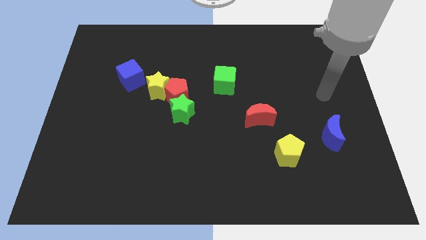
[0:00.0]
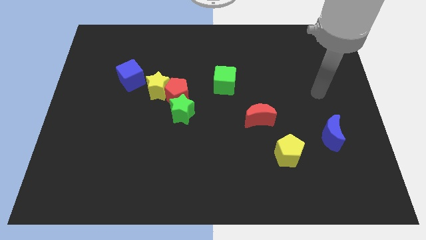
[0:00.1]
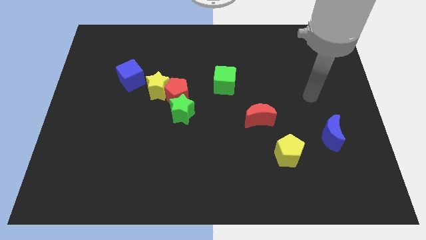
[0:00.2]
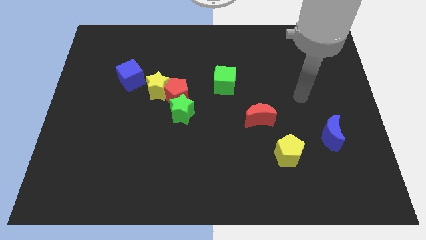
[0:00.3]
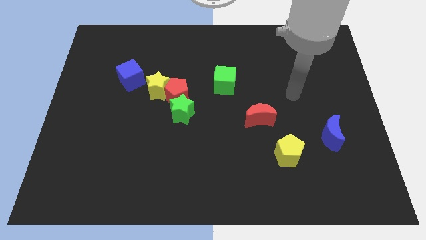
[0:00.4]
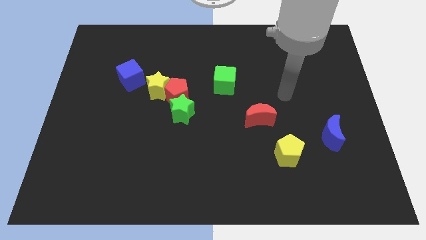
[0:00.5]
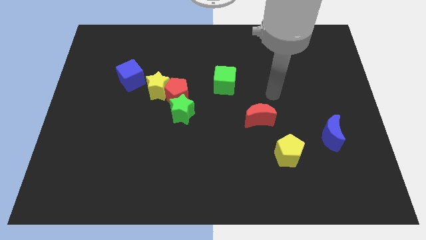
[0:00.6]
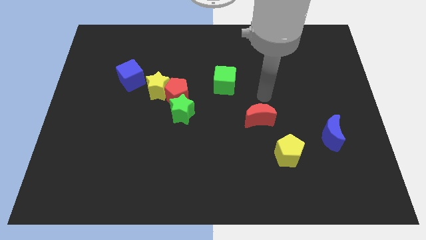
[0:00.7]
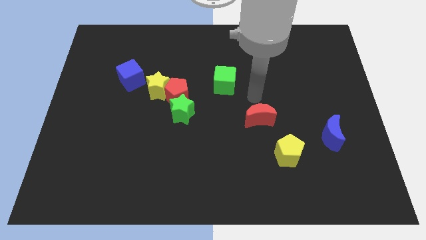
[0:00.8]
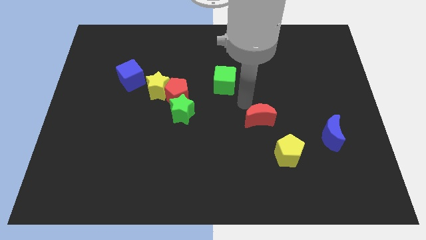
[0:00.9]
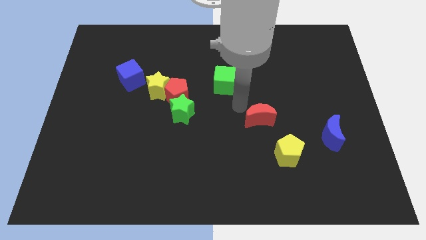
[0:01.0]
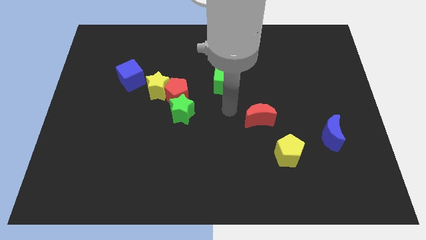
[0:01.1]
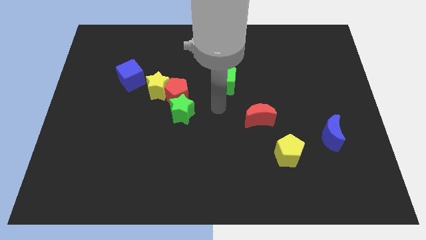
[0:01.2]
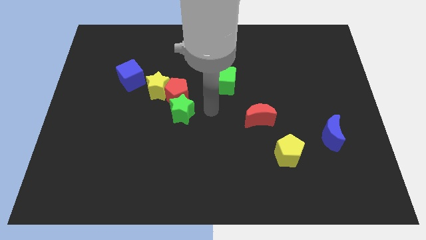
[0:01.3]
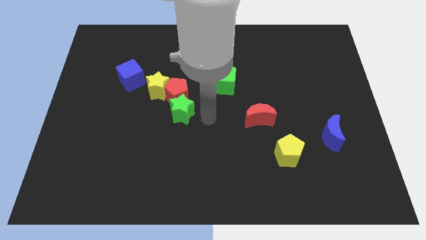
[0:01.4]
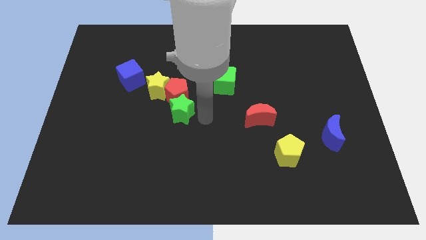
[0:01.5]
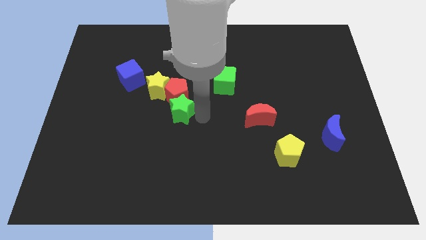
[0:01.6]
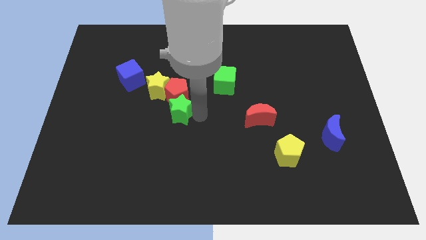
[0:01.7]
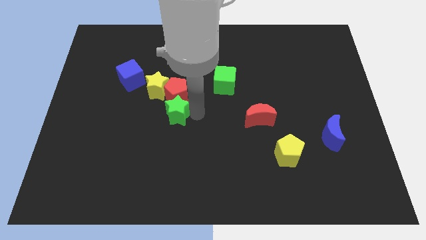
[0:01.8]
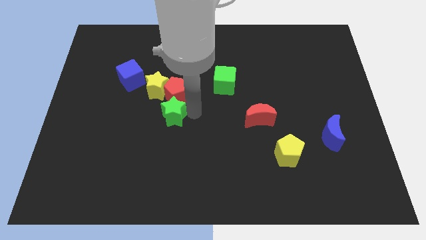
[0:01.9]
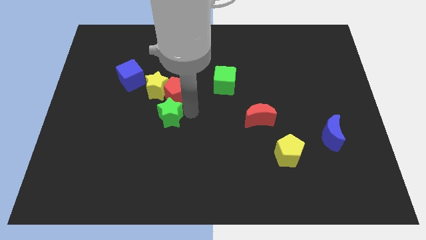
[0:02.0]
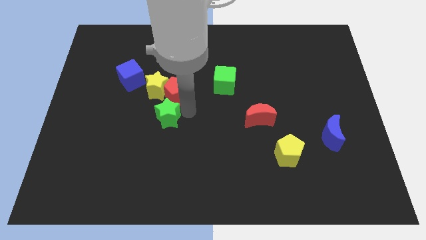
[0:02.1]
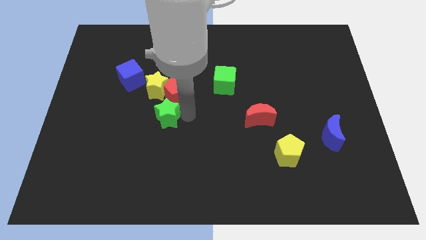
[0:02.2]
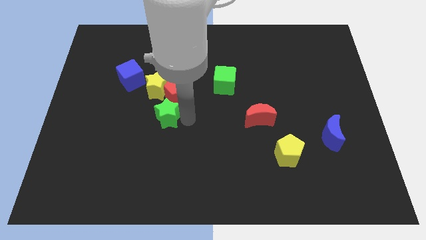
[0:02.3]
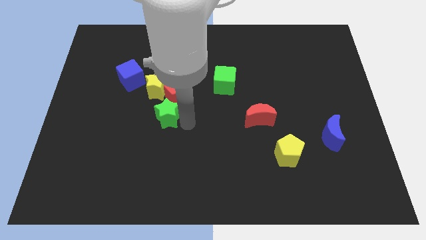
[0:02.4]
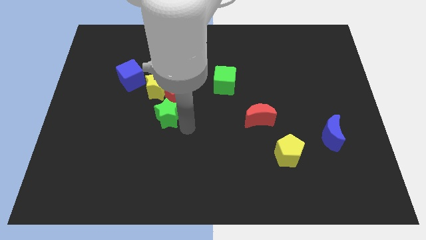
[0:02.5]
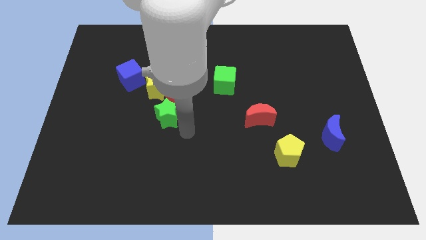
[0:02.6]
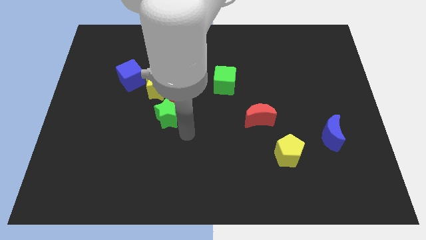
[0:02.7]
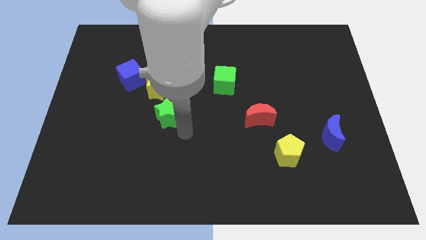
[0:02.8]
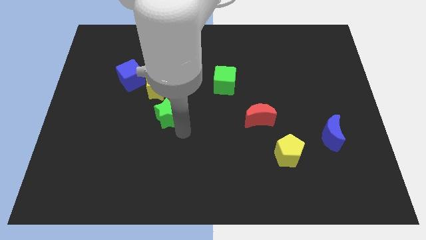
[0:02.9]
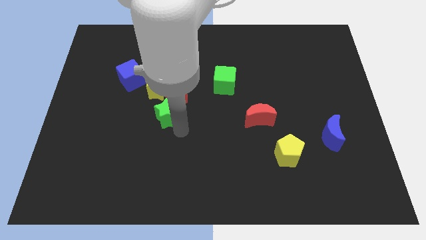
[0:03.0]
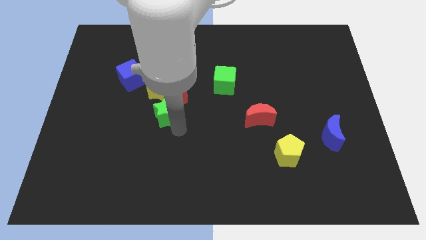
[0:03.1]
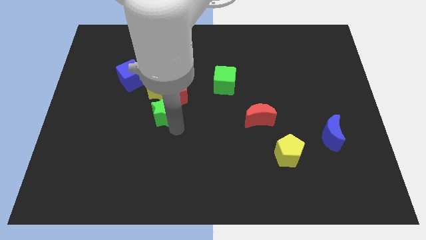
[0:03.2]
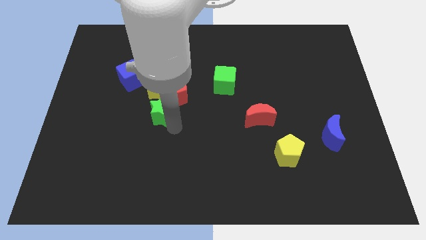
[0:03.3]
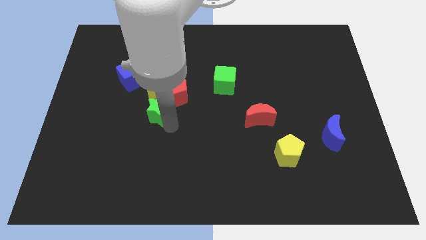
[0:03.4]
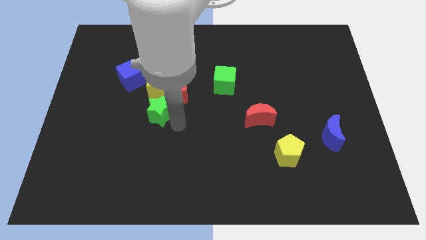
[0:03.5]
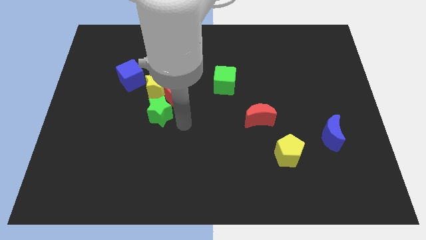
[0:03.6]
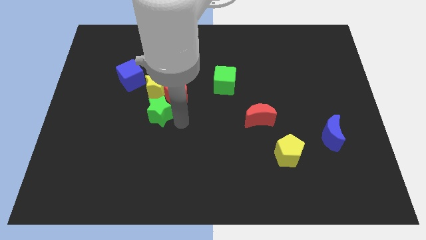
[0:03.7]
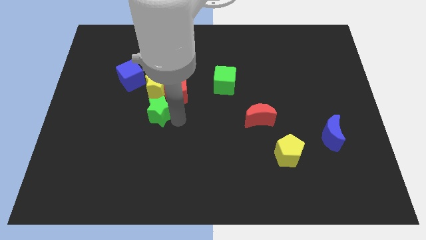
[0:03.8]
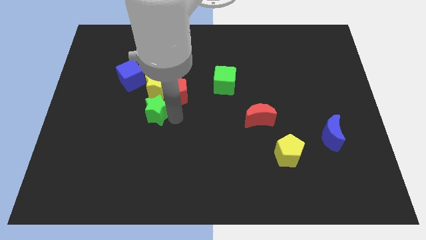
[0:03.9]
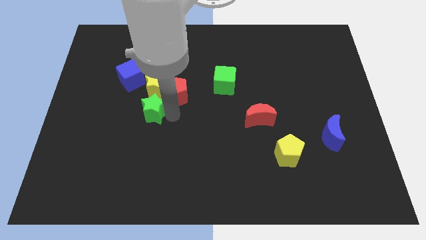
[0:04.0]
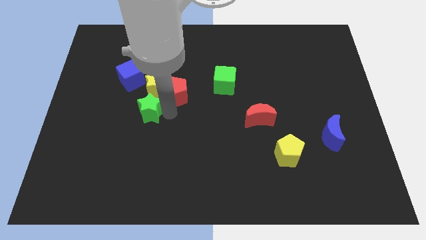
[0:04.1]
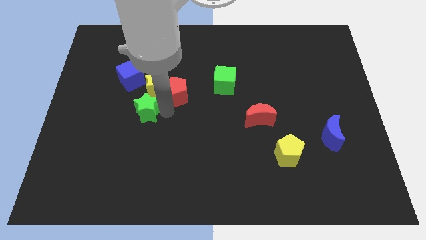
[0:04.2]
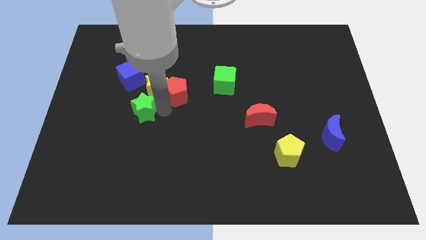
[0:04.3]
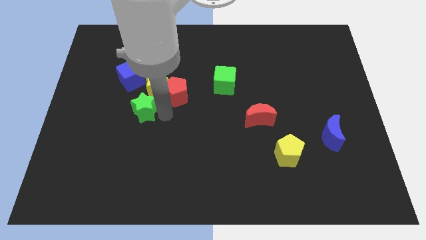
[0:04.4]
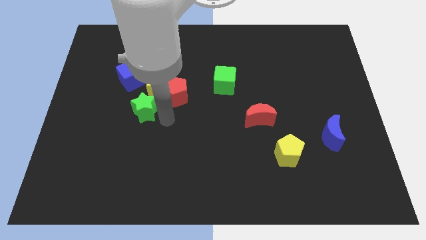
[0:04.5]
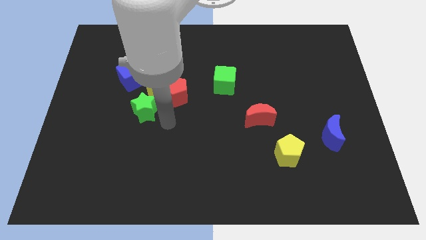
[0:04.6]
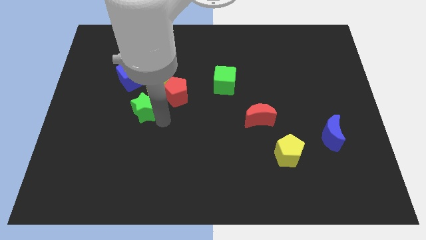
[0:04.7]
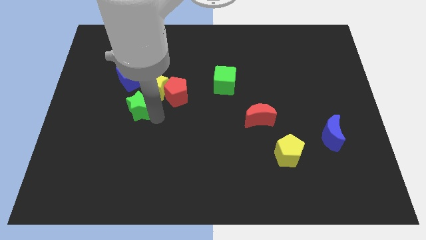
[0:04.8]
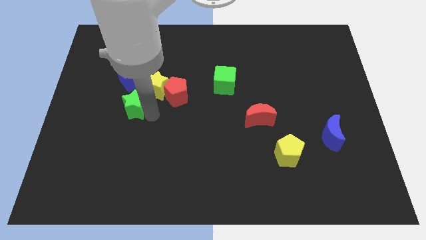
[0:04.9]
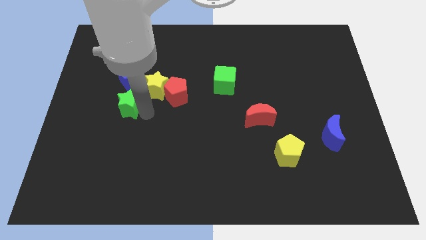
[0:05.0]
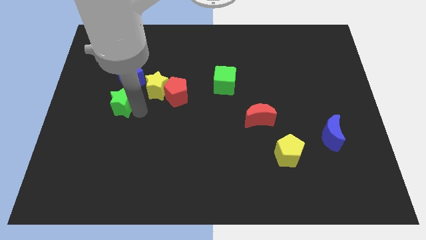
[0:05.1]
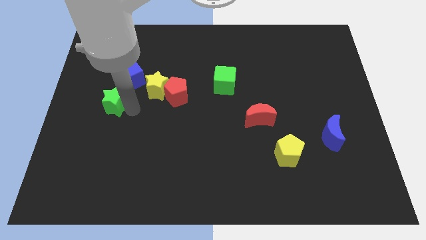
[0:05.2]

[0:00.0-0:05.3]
push the green star to the bottom left of the blue cube

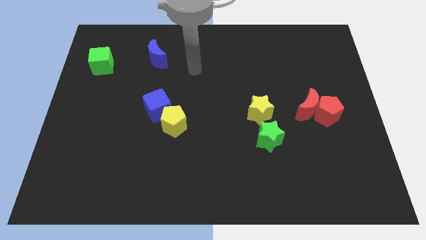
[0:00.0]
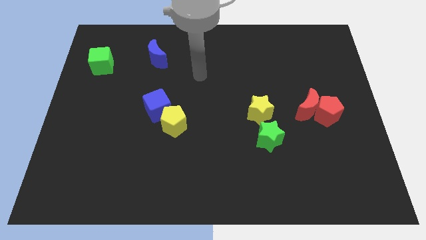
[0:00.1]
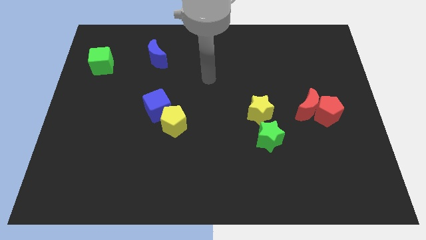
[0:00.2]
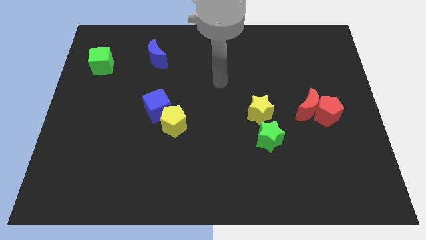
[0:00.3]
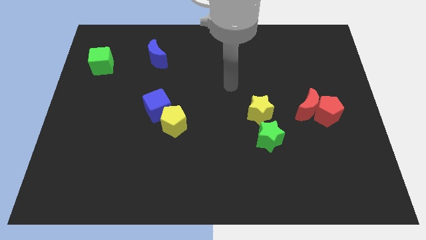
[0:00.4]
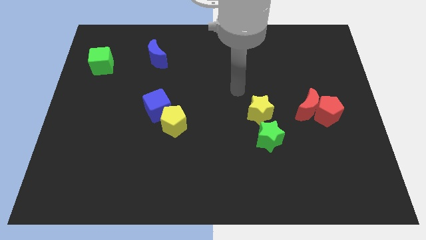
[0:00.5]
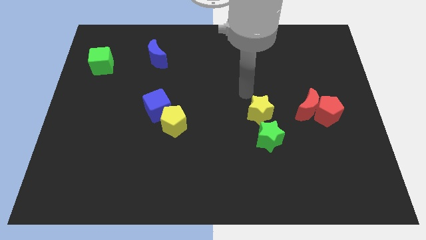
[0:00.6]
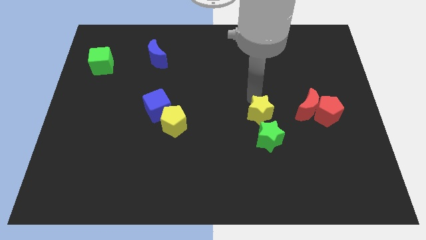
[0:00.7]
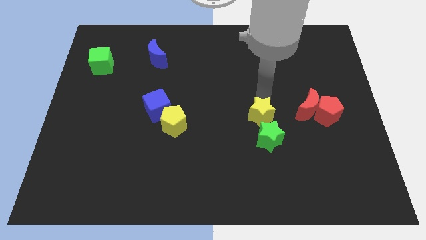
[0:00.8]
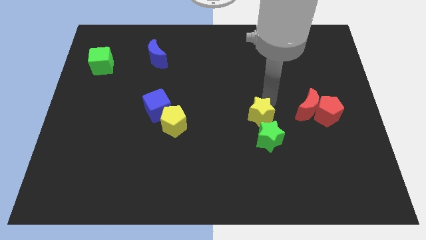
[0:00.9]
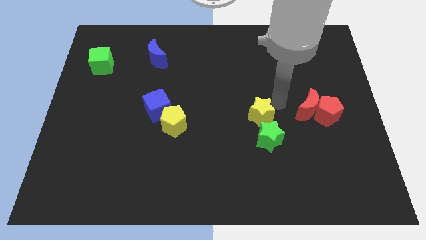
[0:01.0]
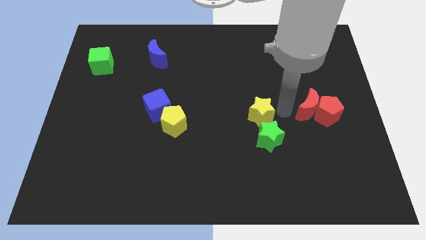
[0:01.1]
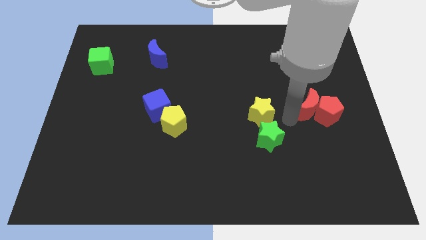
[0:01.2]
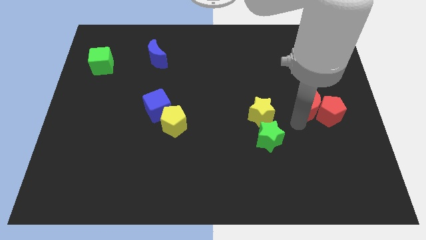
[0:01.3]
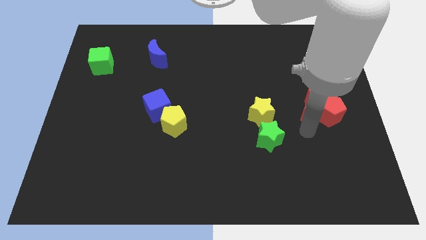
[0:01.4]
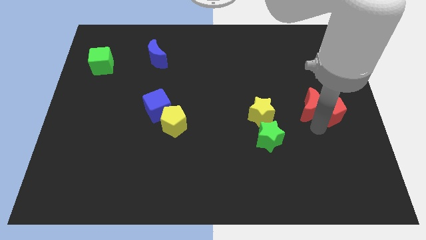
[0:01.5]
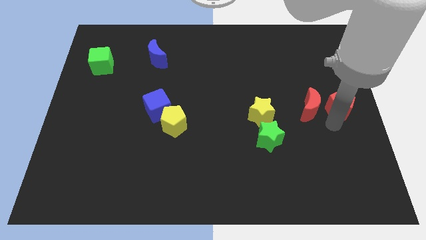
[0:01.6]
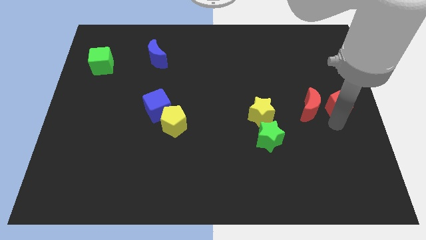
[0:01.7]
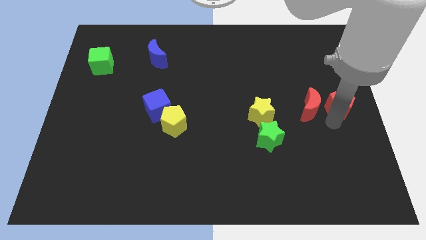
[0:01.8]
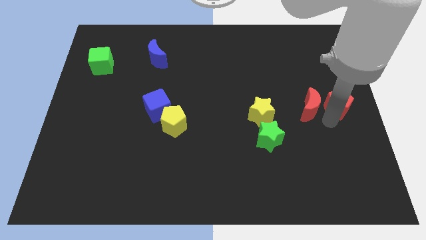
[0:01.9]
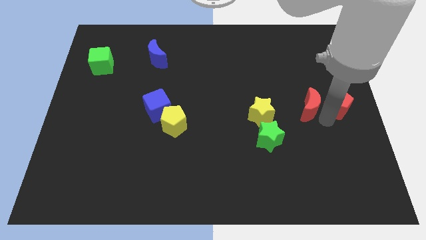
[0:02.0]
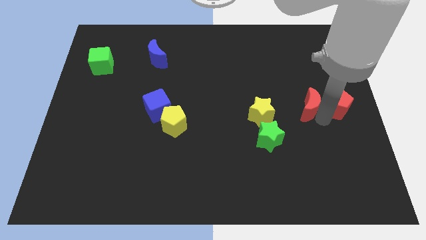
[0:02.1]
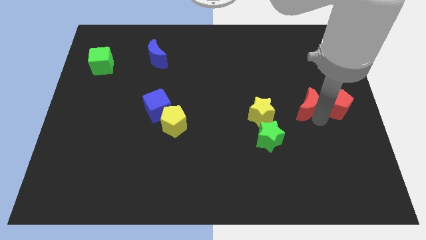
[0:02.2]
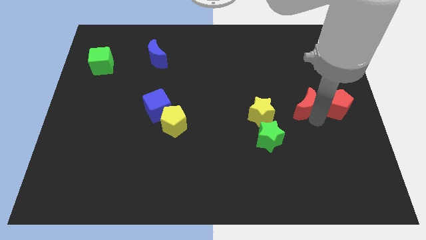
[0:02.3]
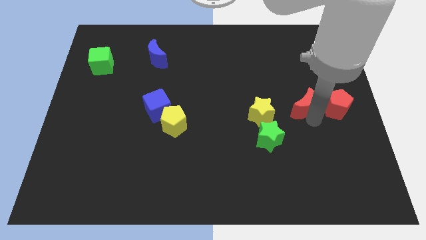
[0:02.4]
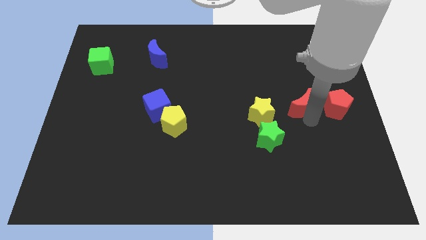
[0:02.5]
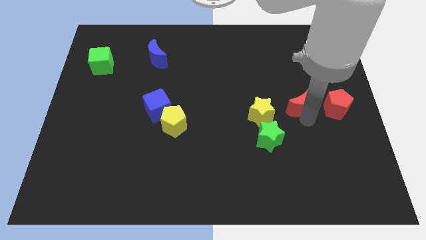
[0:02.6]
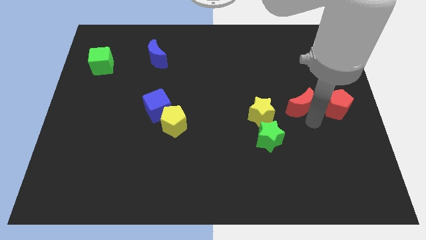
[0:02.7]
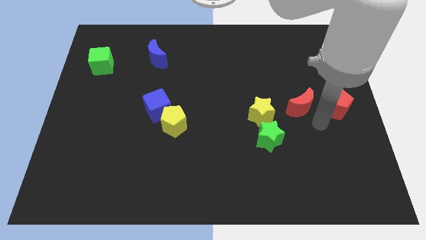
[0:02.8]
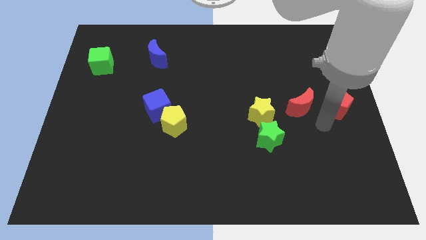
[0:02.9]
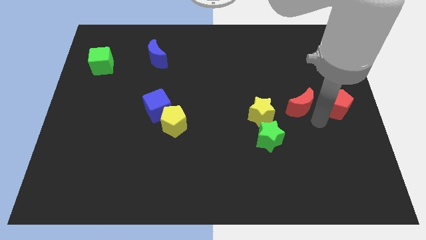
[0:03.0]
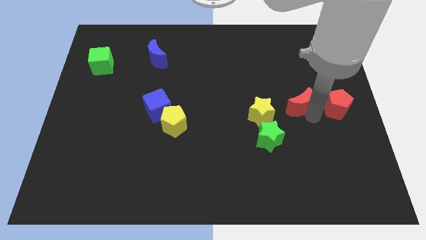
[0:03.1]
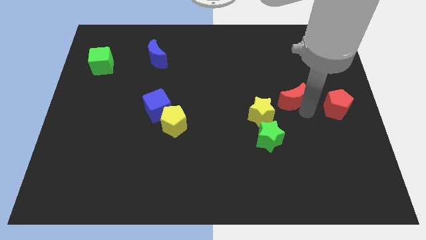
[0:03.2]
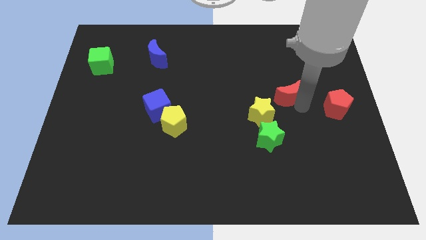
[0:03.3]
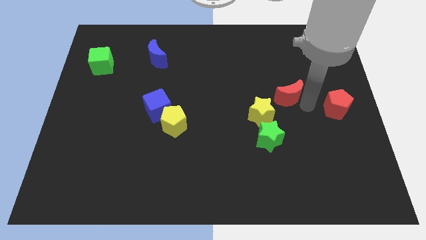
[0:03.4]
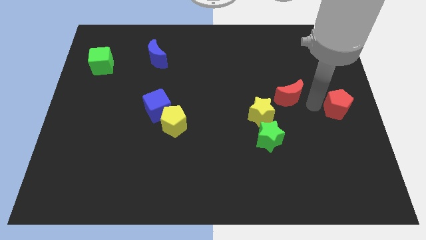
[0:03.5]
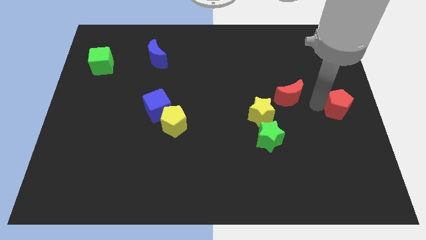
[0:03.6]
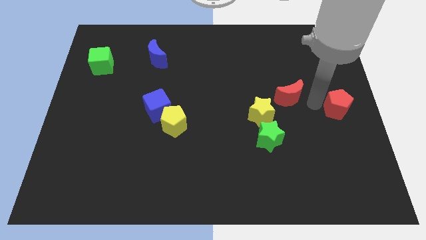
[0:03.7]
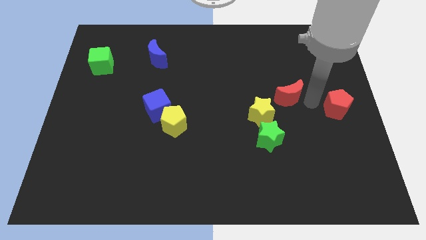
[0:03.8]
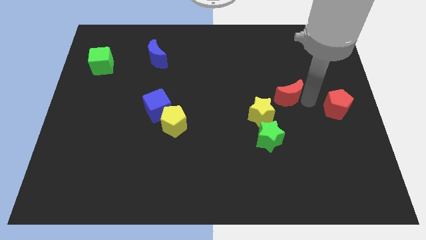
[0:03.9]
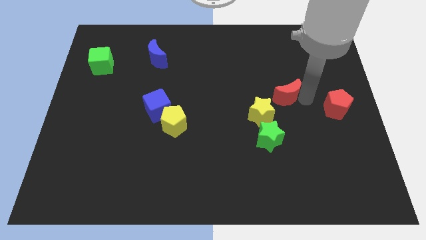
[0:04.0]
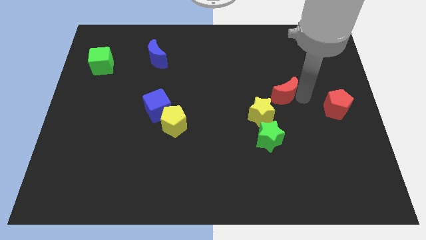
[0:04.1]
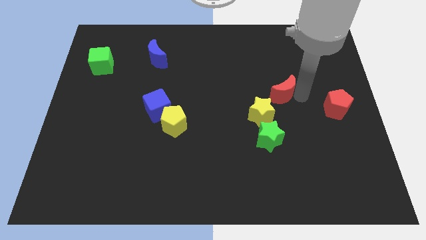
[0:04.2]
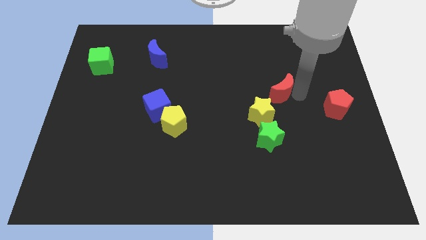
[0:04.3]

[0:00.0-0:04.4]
put the red moon to the top side of the green star
